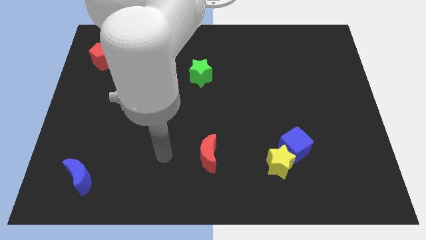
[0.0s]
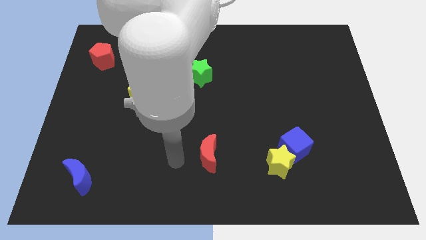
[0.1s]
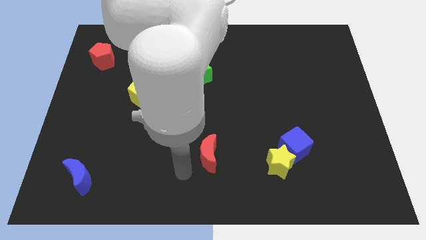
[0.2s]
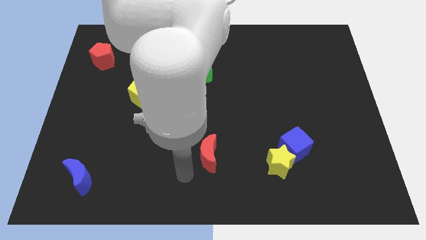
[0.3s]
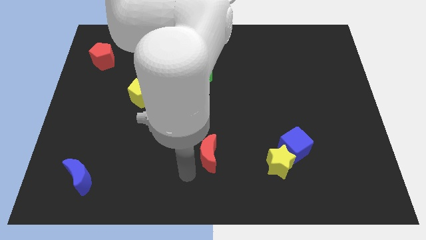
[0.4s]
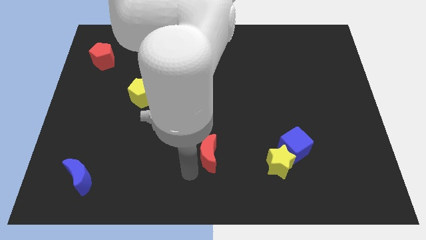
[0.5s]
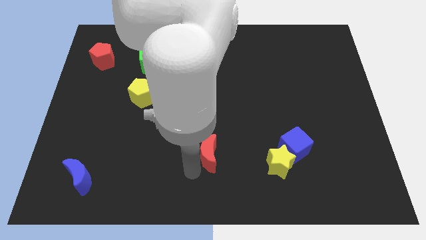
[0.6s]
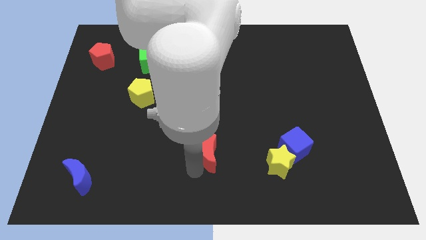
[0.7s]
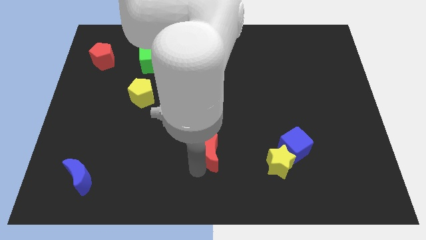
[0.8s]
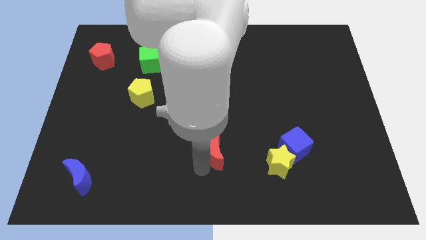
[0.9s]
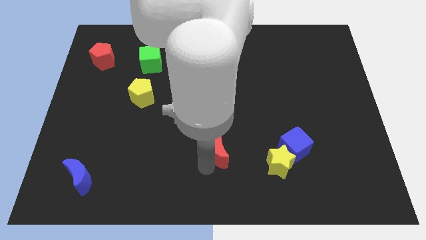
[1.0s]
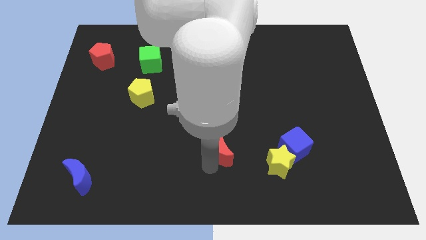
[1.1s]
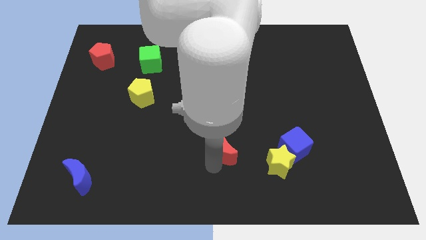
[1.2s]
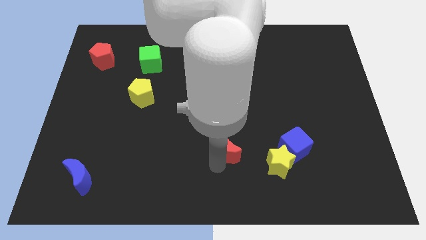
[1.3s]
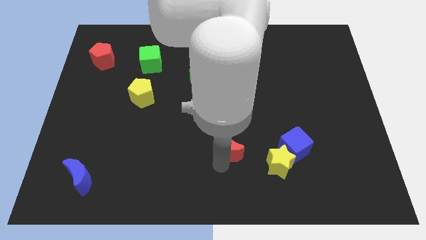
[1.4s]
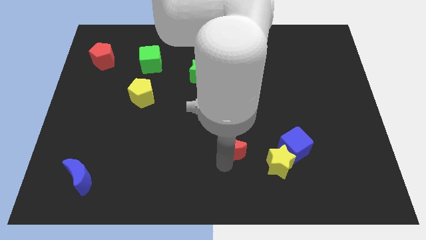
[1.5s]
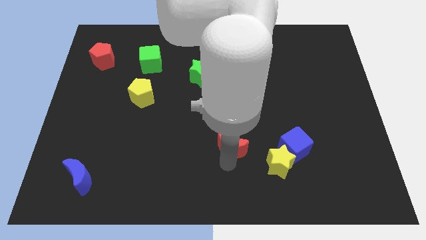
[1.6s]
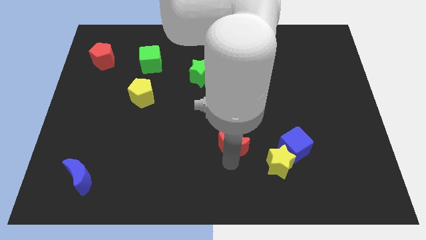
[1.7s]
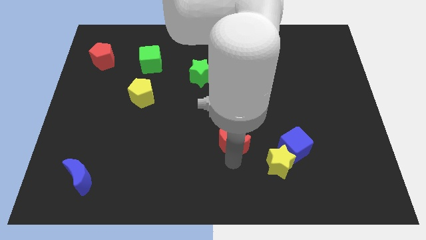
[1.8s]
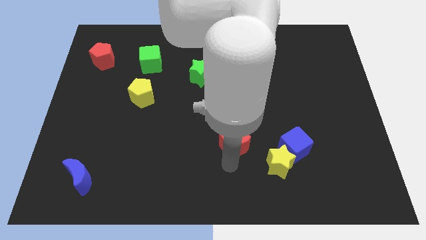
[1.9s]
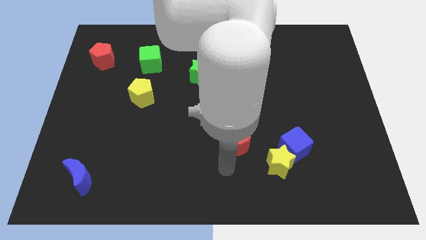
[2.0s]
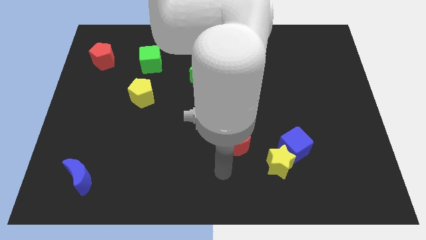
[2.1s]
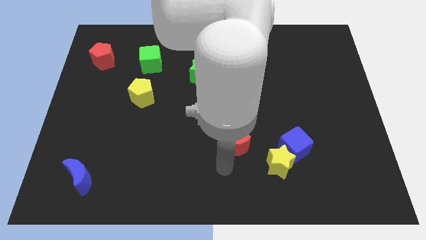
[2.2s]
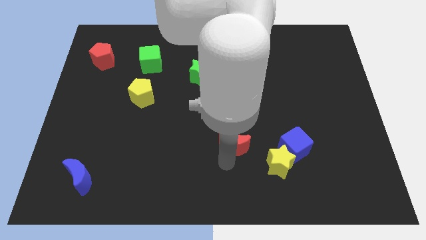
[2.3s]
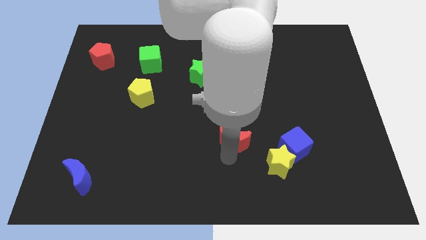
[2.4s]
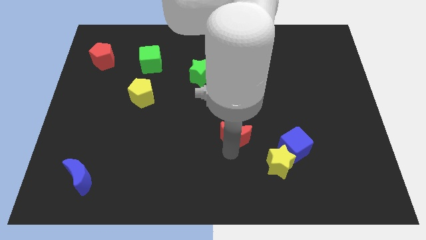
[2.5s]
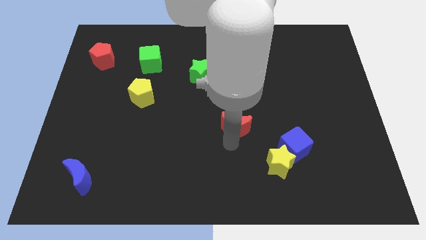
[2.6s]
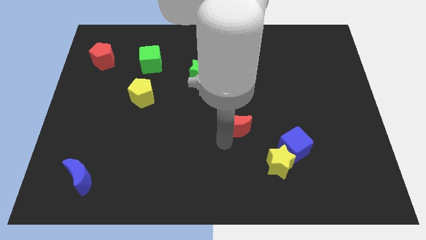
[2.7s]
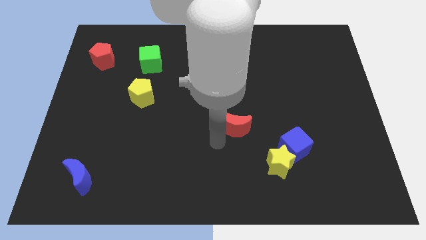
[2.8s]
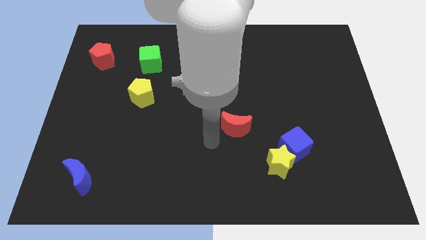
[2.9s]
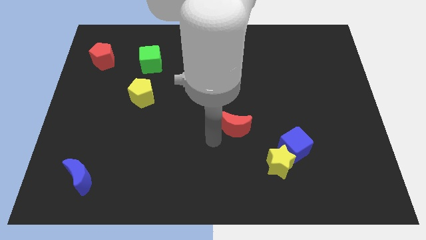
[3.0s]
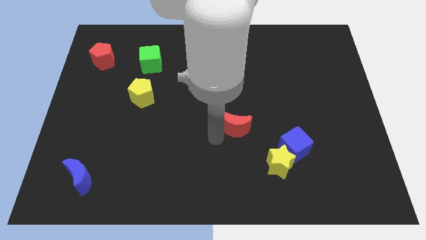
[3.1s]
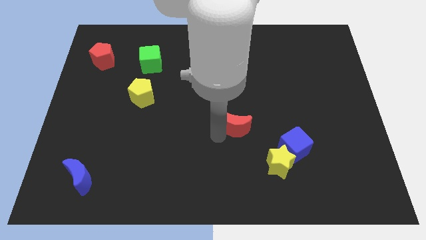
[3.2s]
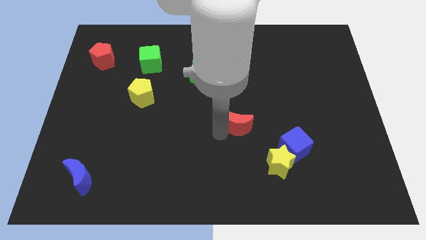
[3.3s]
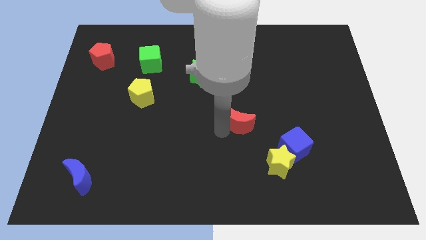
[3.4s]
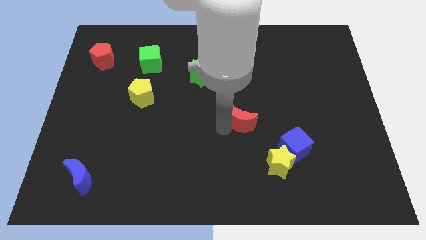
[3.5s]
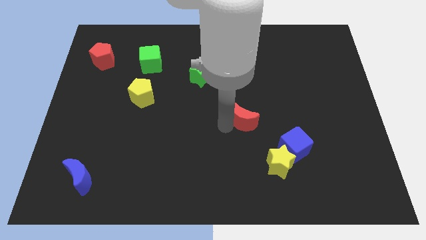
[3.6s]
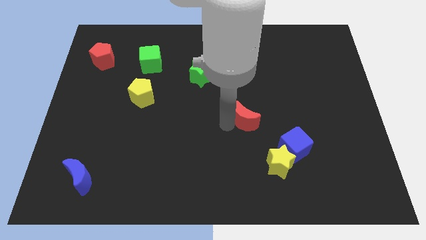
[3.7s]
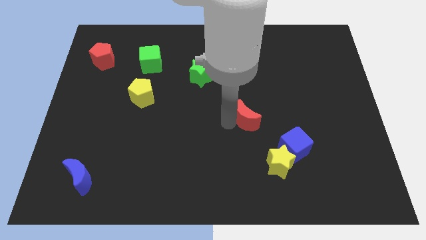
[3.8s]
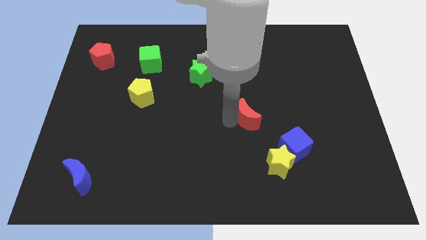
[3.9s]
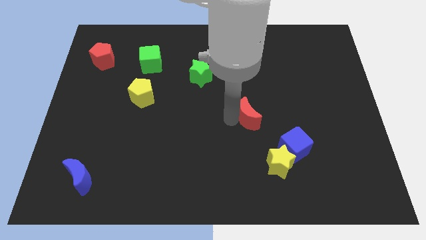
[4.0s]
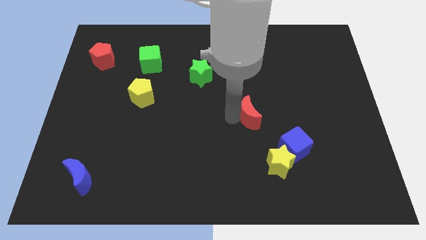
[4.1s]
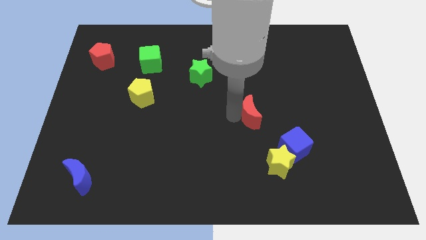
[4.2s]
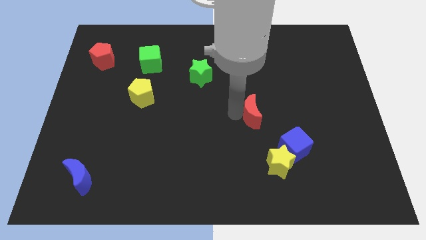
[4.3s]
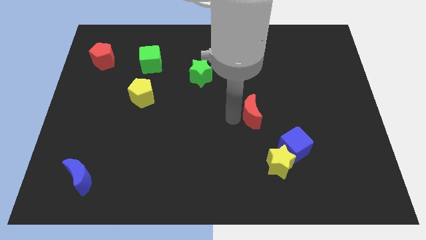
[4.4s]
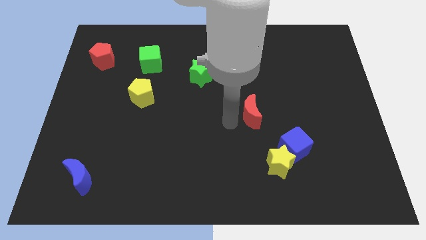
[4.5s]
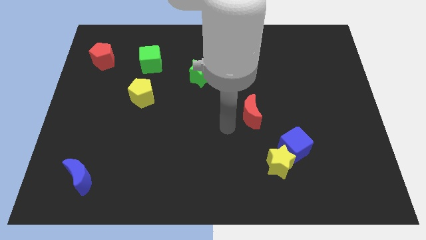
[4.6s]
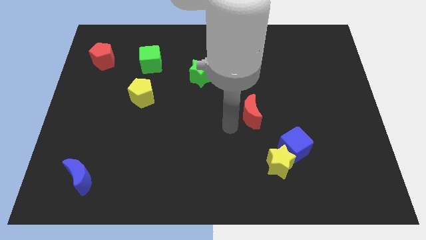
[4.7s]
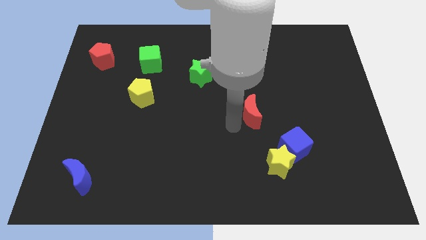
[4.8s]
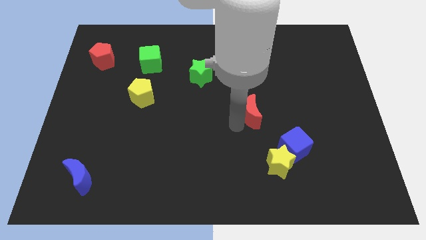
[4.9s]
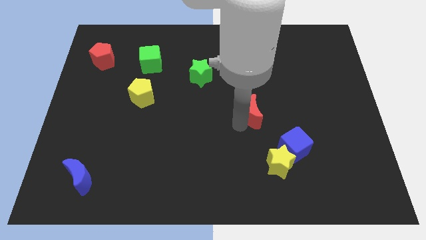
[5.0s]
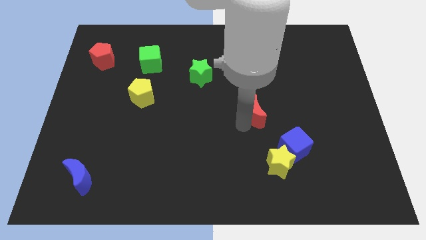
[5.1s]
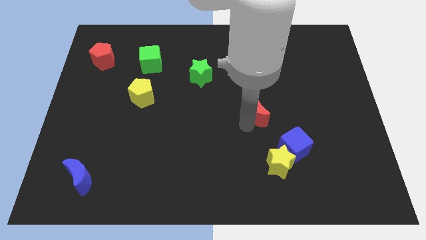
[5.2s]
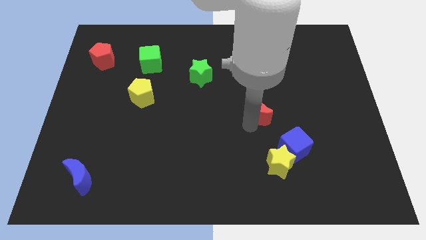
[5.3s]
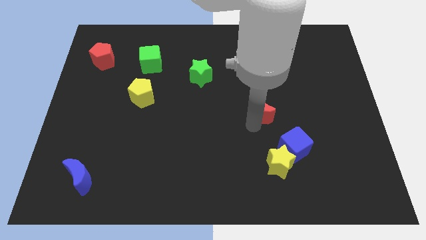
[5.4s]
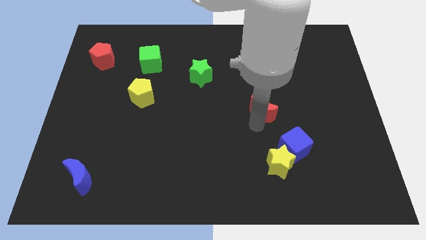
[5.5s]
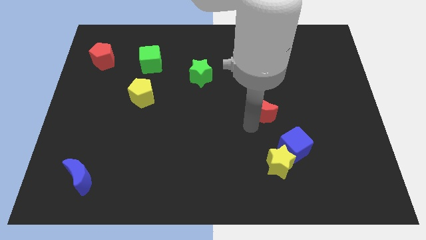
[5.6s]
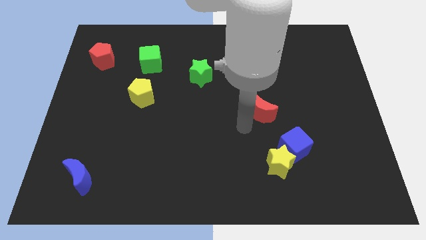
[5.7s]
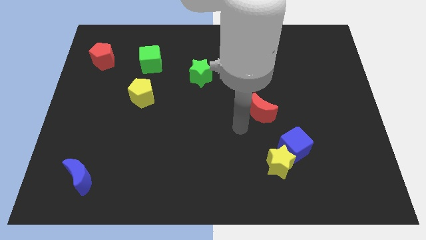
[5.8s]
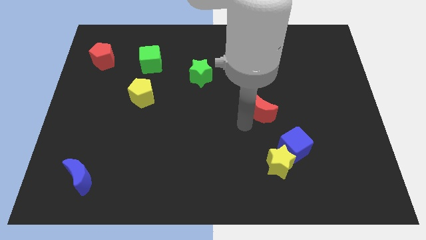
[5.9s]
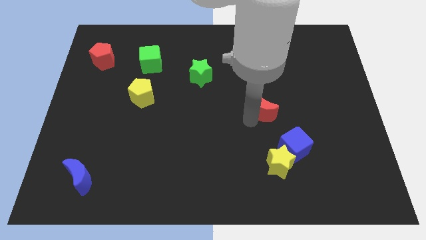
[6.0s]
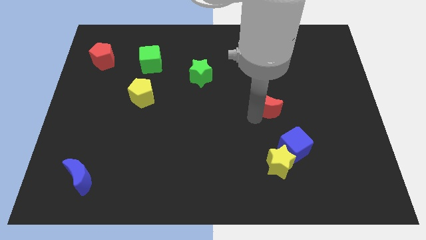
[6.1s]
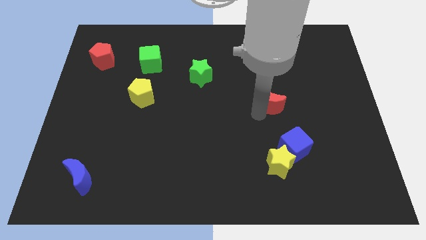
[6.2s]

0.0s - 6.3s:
push the red moon diagonally up and to the right

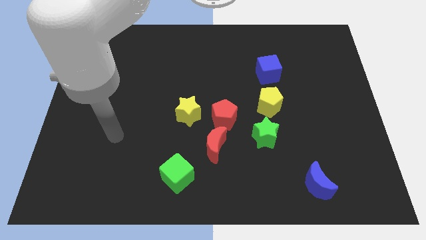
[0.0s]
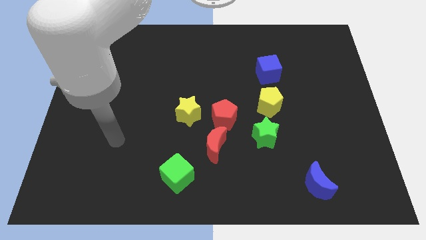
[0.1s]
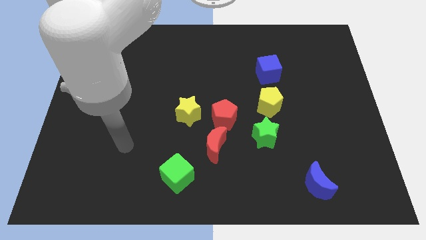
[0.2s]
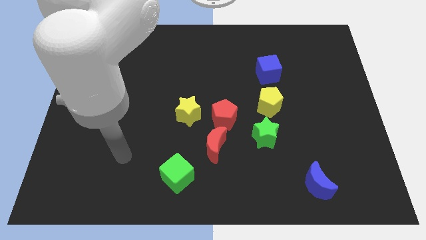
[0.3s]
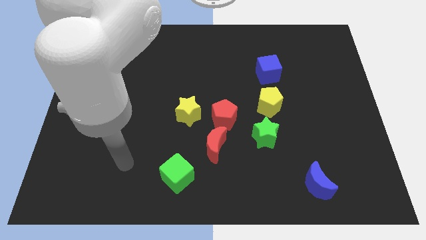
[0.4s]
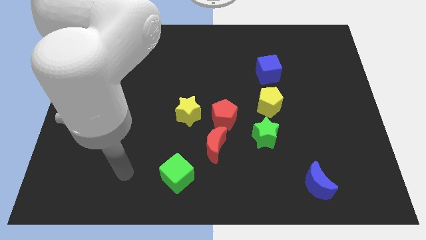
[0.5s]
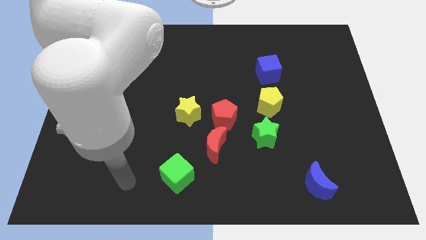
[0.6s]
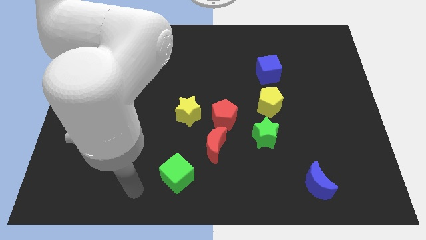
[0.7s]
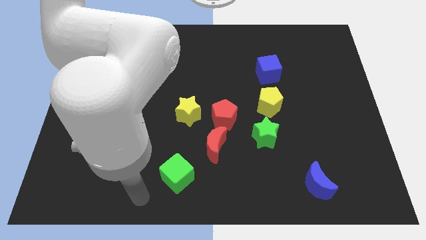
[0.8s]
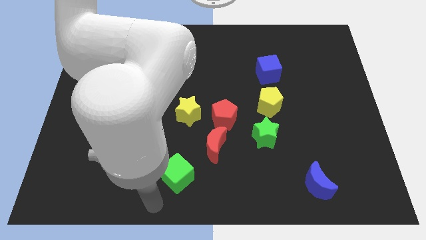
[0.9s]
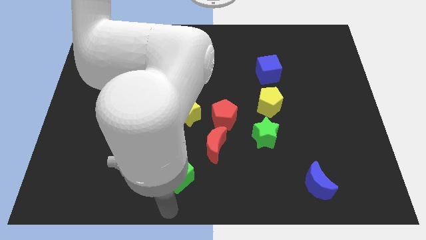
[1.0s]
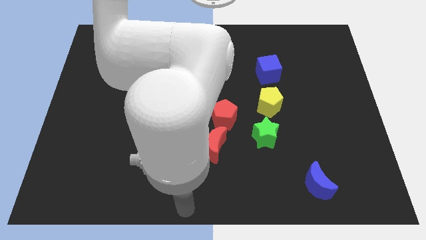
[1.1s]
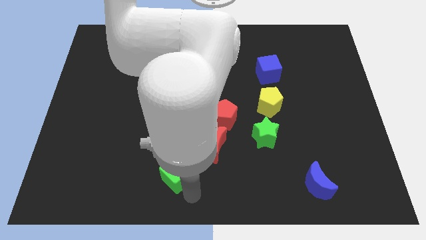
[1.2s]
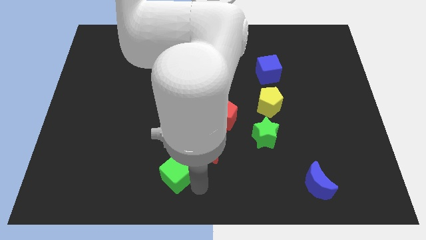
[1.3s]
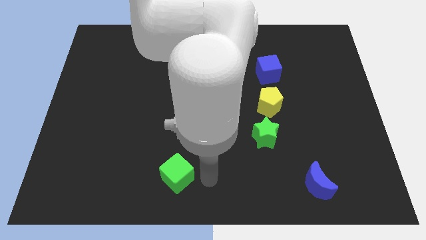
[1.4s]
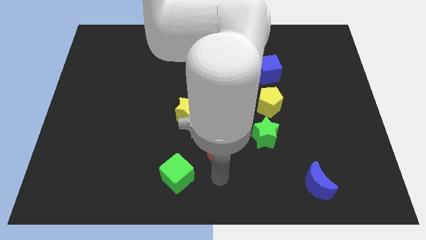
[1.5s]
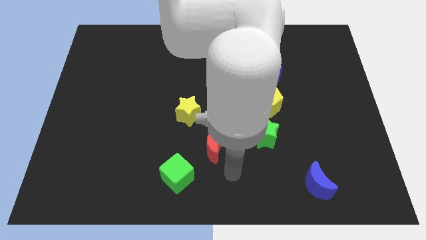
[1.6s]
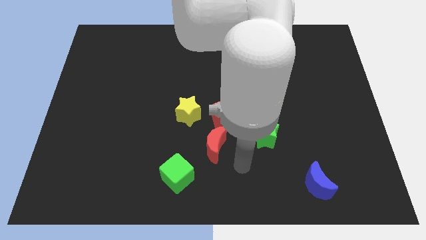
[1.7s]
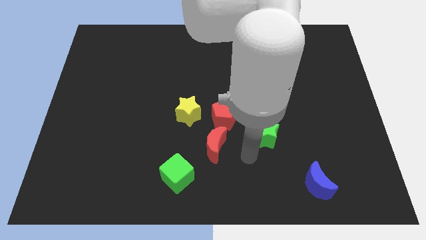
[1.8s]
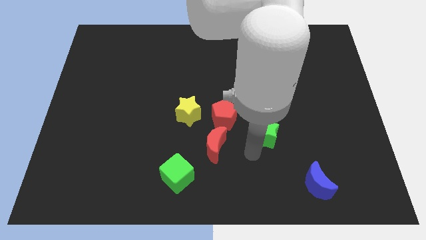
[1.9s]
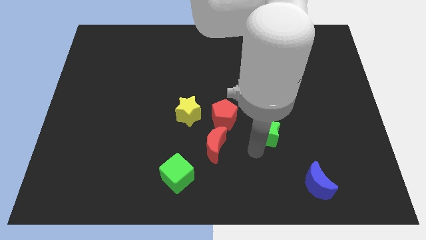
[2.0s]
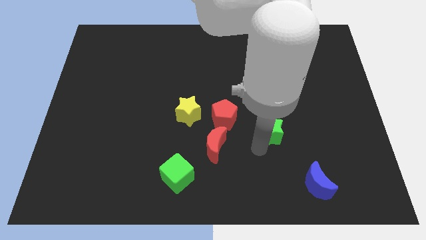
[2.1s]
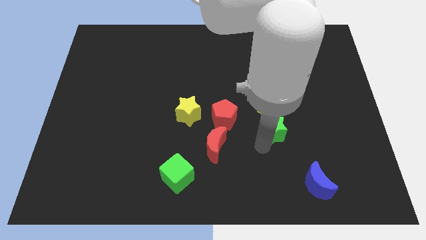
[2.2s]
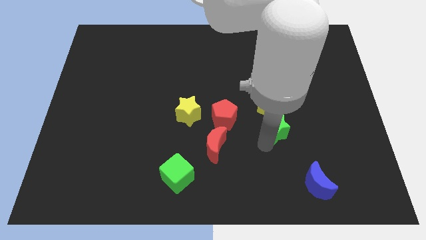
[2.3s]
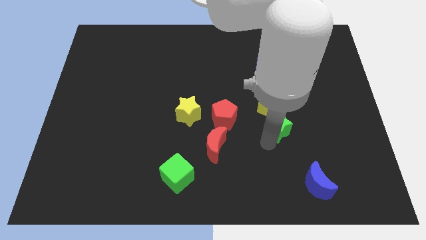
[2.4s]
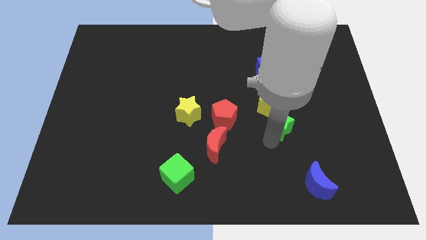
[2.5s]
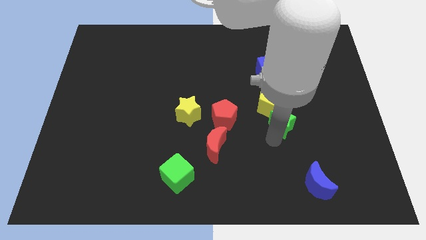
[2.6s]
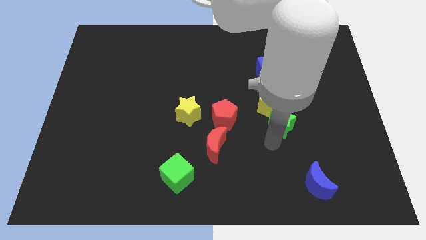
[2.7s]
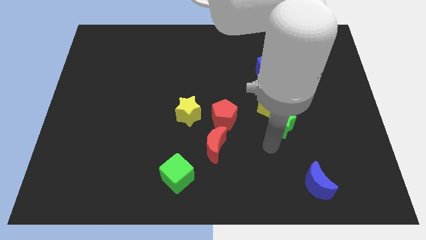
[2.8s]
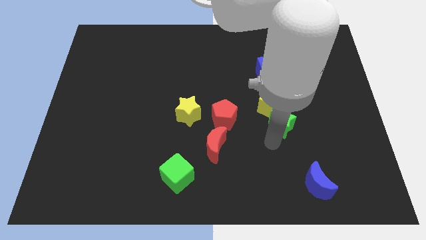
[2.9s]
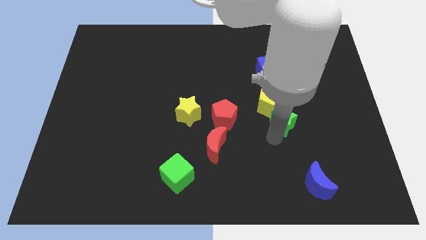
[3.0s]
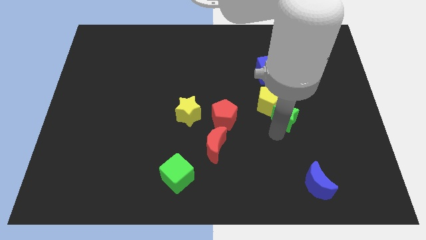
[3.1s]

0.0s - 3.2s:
slide the green star diagonally upwards and to the right a bit
